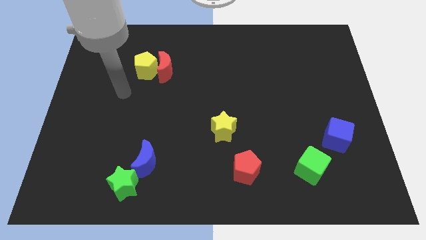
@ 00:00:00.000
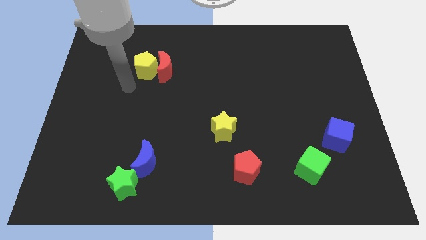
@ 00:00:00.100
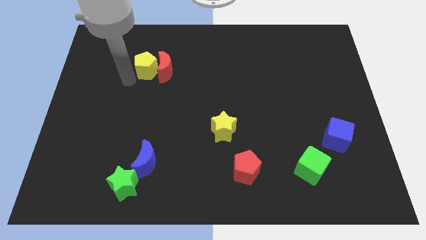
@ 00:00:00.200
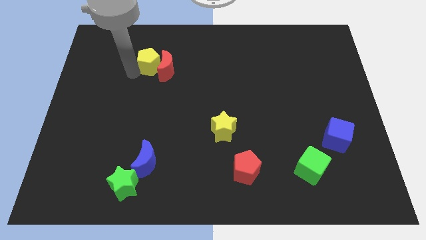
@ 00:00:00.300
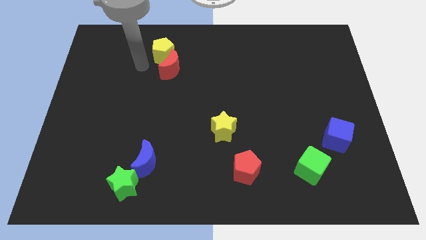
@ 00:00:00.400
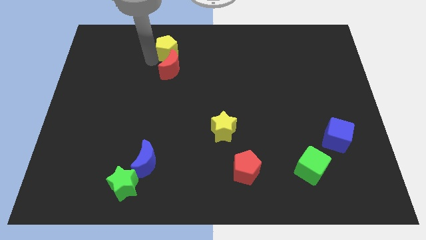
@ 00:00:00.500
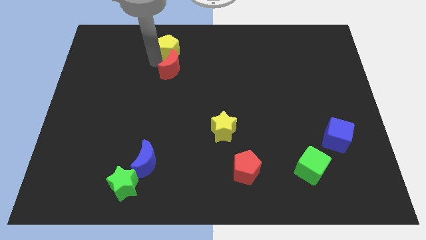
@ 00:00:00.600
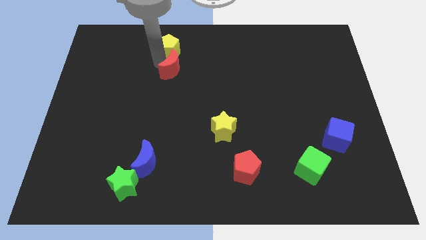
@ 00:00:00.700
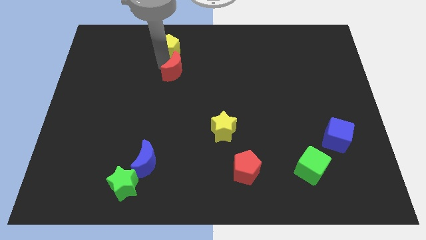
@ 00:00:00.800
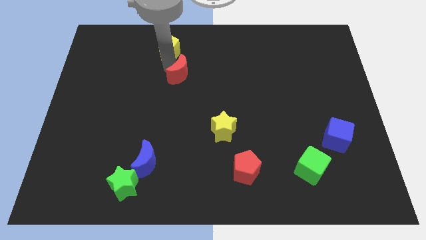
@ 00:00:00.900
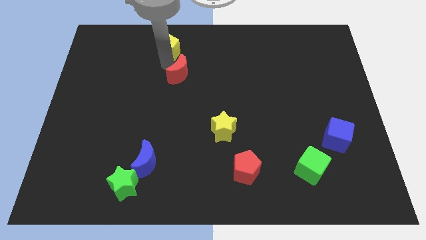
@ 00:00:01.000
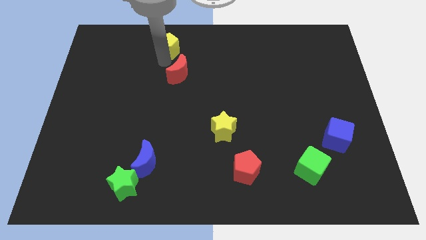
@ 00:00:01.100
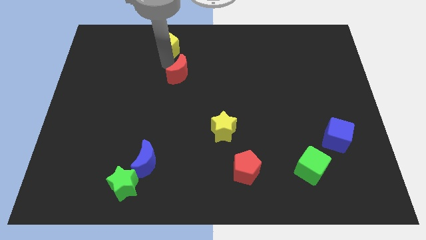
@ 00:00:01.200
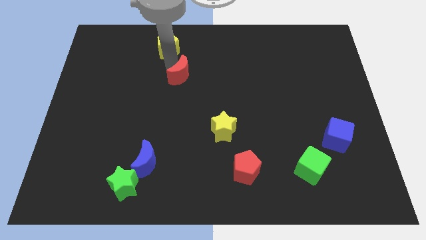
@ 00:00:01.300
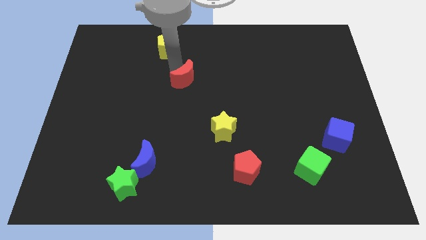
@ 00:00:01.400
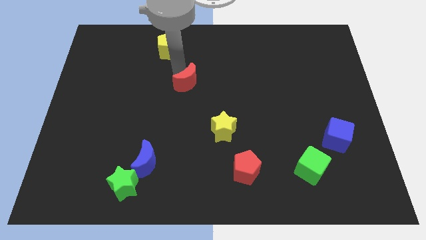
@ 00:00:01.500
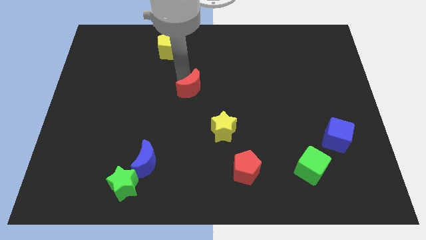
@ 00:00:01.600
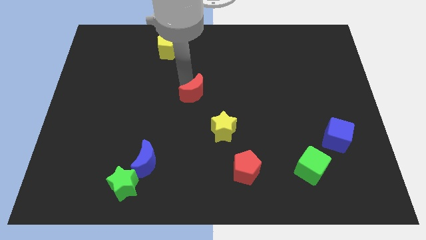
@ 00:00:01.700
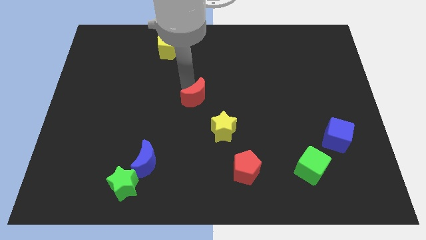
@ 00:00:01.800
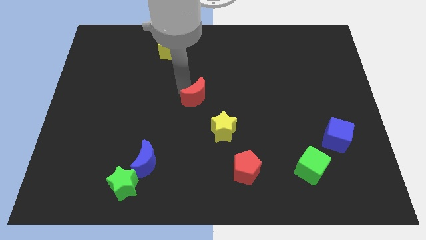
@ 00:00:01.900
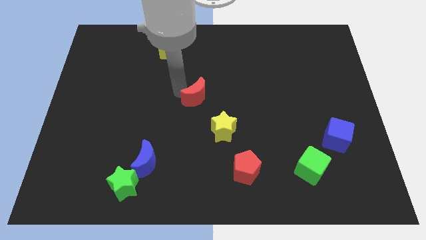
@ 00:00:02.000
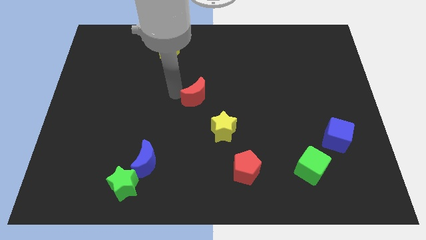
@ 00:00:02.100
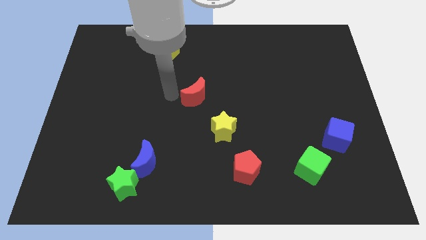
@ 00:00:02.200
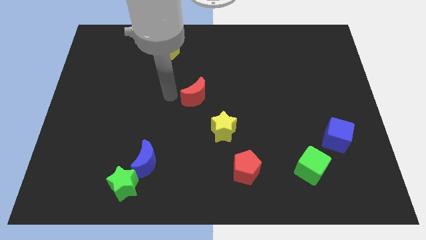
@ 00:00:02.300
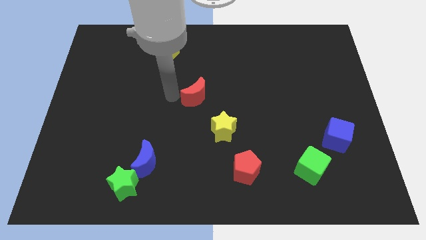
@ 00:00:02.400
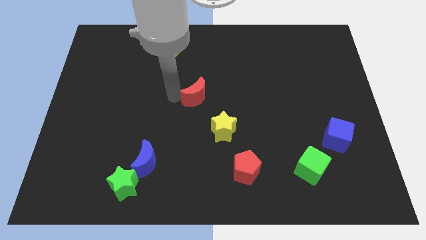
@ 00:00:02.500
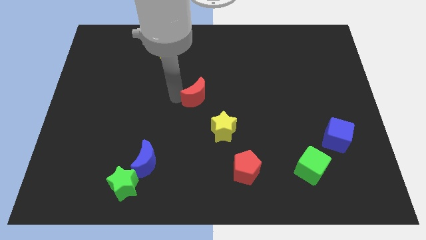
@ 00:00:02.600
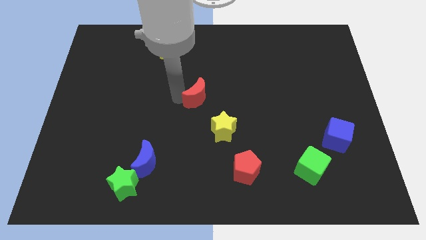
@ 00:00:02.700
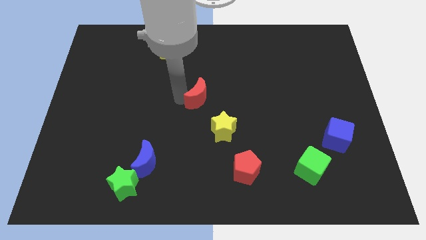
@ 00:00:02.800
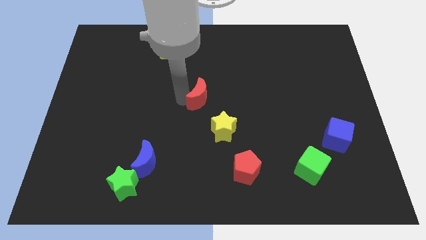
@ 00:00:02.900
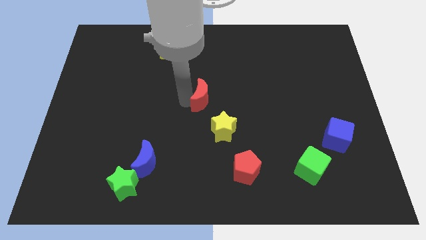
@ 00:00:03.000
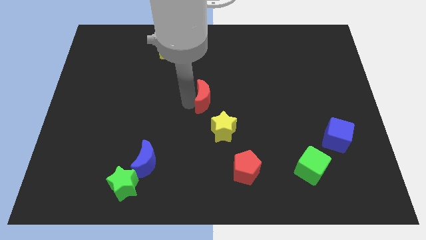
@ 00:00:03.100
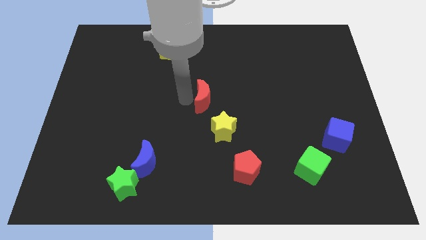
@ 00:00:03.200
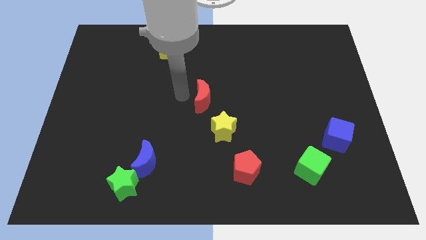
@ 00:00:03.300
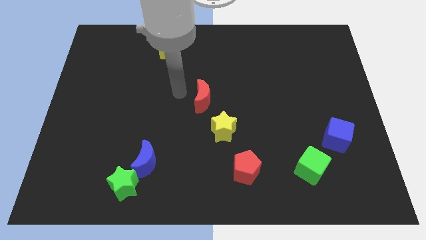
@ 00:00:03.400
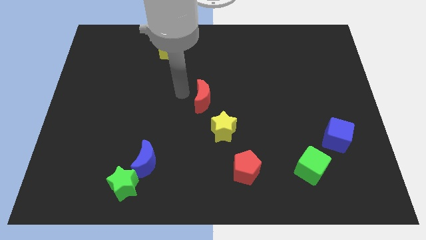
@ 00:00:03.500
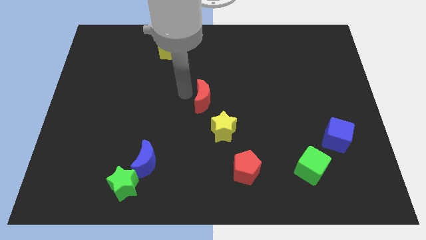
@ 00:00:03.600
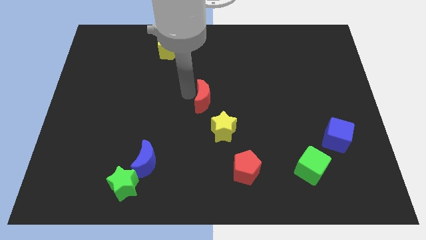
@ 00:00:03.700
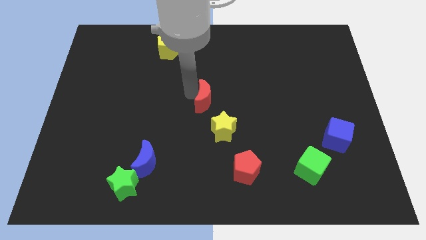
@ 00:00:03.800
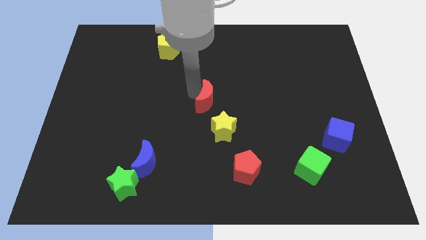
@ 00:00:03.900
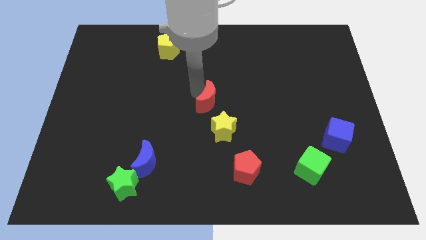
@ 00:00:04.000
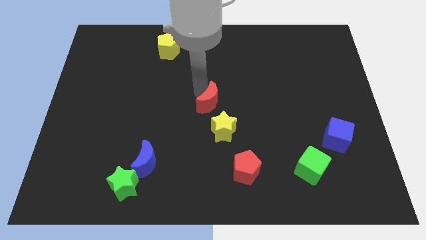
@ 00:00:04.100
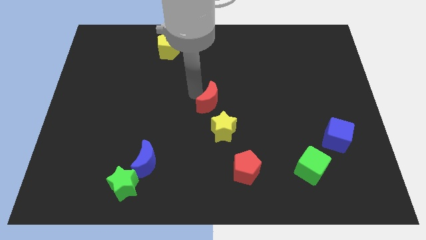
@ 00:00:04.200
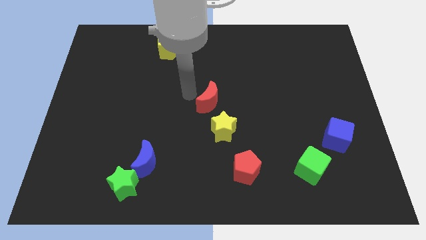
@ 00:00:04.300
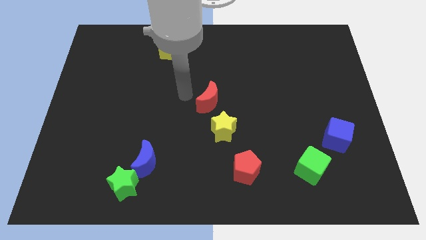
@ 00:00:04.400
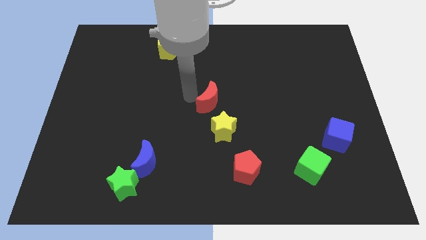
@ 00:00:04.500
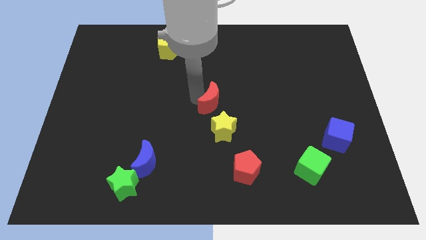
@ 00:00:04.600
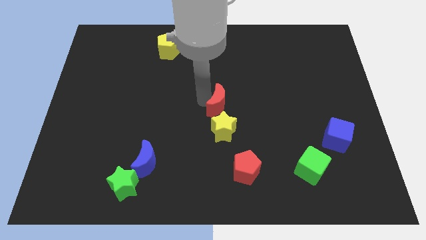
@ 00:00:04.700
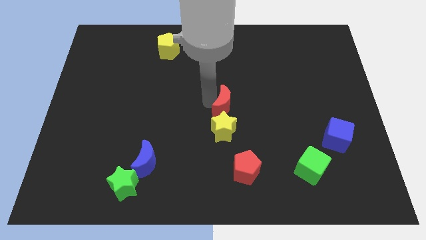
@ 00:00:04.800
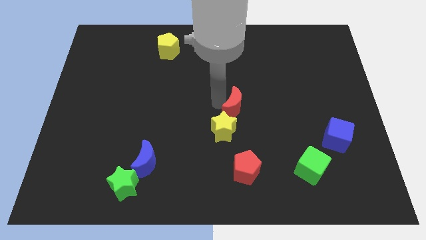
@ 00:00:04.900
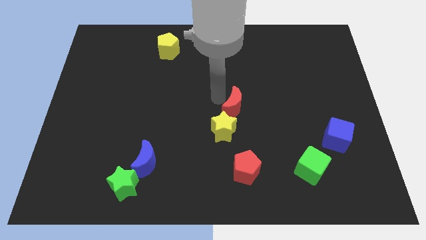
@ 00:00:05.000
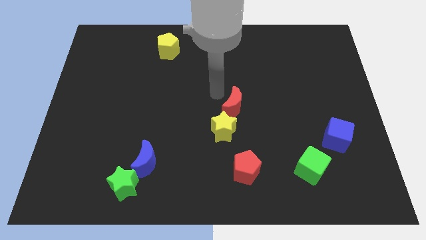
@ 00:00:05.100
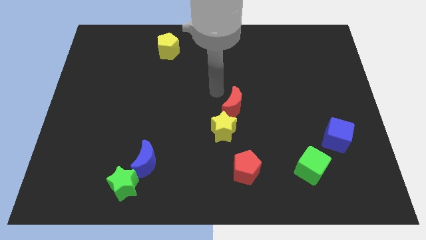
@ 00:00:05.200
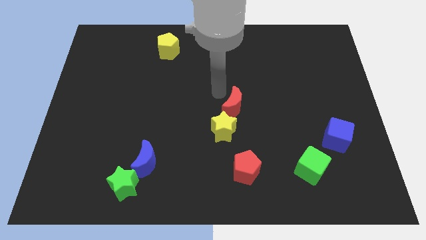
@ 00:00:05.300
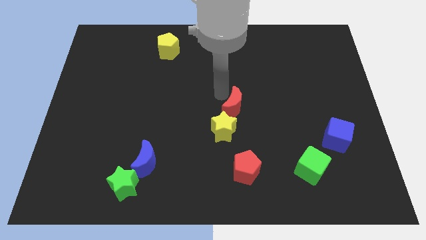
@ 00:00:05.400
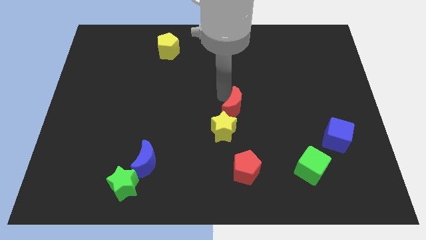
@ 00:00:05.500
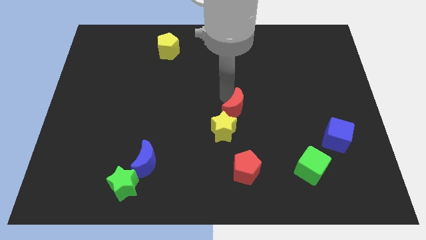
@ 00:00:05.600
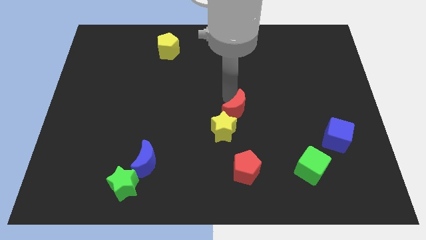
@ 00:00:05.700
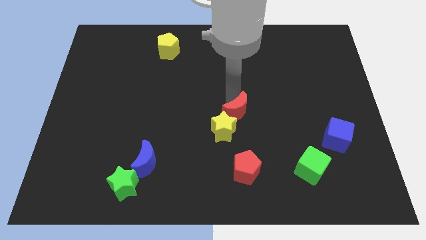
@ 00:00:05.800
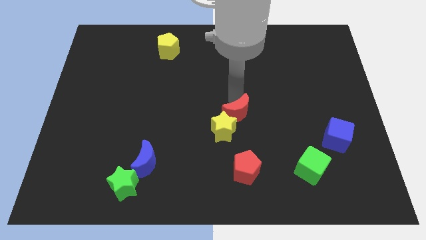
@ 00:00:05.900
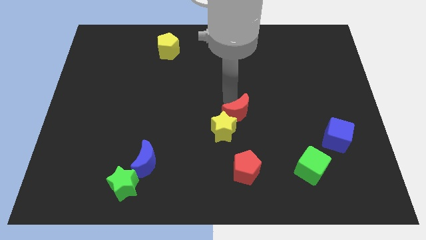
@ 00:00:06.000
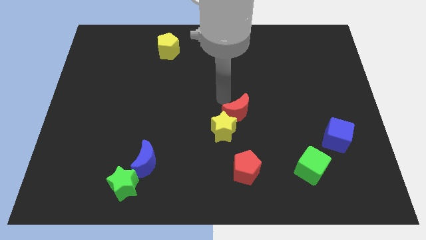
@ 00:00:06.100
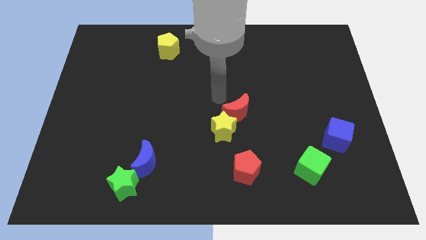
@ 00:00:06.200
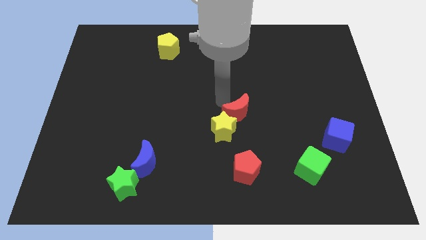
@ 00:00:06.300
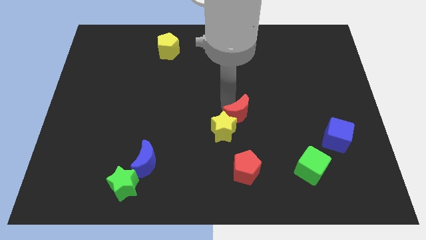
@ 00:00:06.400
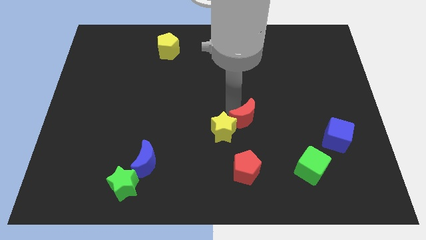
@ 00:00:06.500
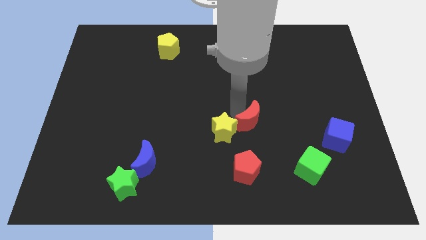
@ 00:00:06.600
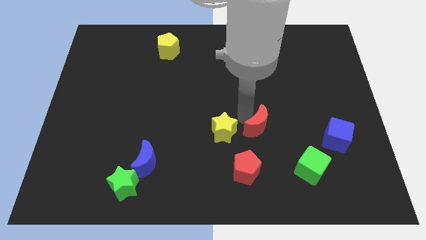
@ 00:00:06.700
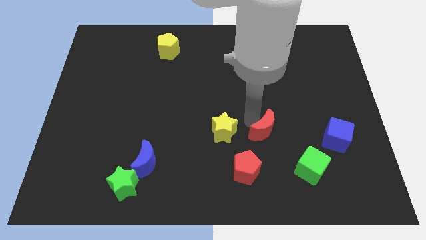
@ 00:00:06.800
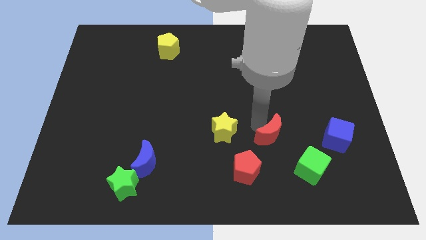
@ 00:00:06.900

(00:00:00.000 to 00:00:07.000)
move the red moon diagonally up and to the left of the green cube

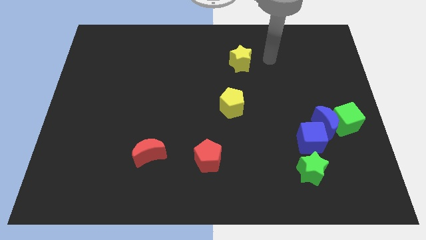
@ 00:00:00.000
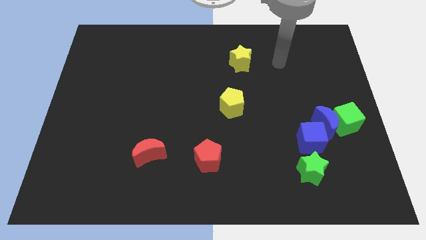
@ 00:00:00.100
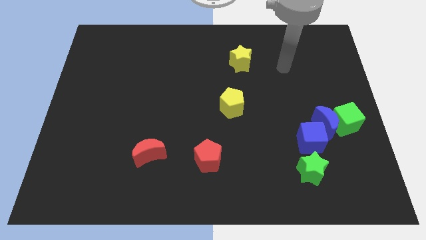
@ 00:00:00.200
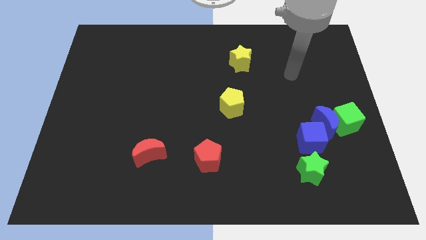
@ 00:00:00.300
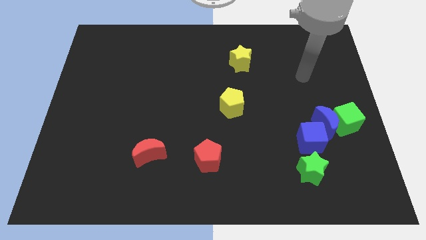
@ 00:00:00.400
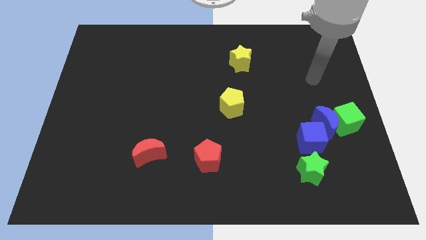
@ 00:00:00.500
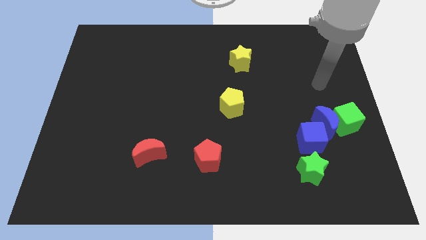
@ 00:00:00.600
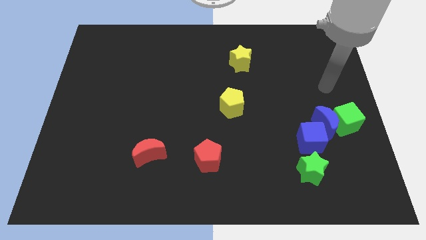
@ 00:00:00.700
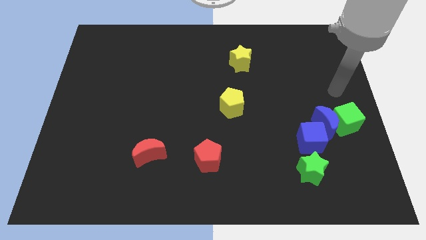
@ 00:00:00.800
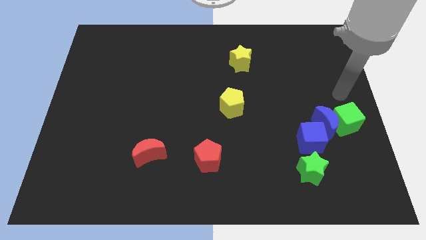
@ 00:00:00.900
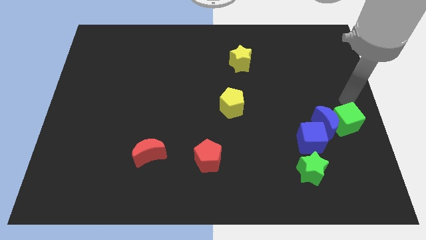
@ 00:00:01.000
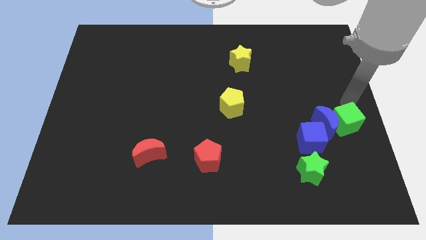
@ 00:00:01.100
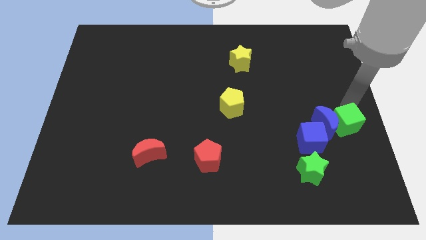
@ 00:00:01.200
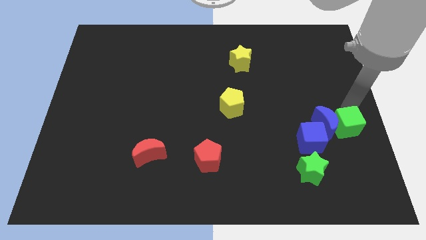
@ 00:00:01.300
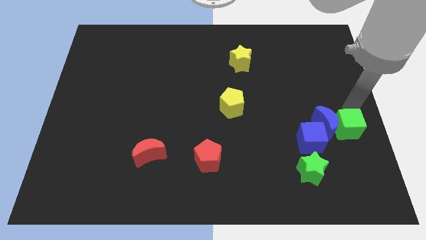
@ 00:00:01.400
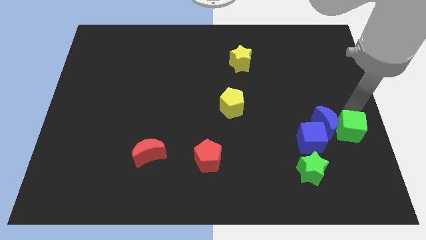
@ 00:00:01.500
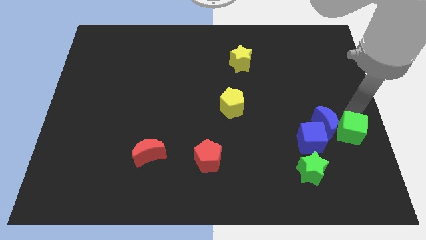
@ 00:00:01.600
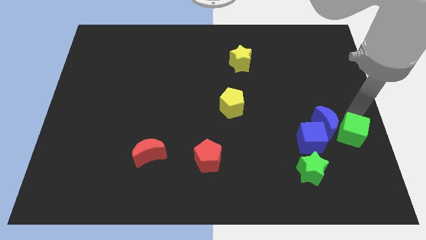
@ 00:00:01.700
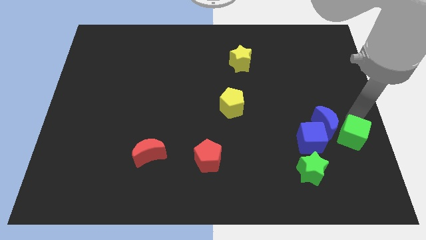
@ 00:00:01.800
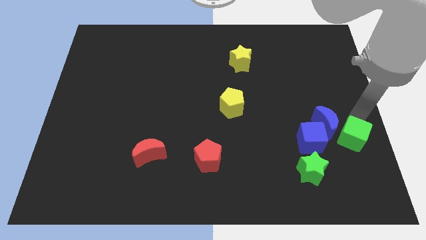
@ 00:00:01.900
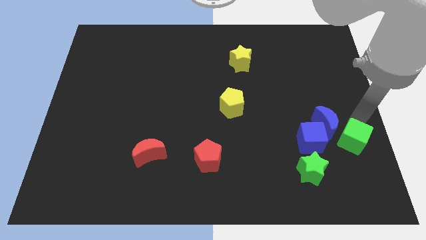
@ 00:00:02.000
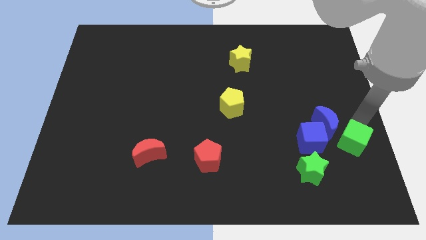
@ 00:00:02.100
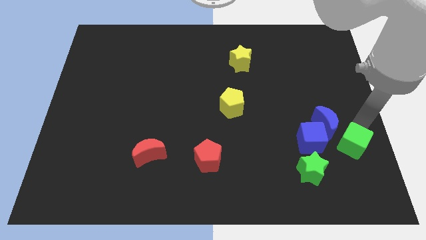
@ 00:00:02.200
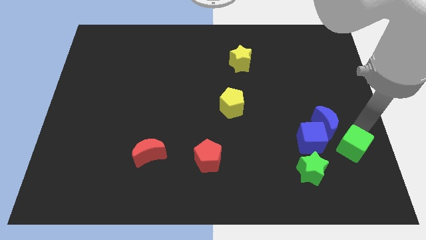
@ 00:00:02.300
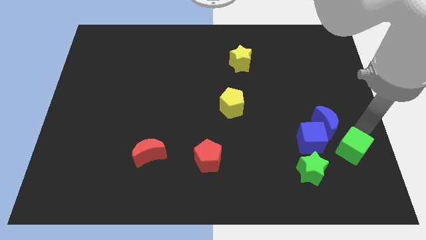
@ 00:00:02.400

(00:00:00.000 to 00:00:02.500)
slide the green cube to the bottom right of the blue cube
